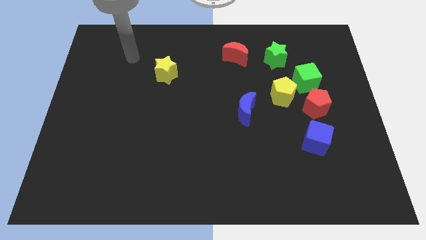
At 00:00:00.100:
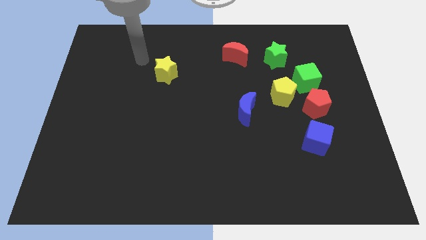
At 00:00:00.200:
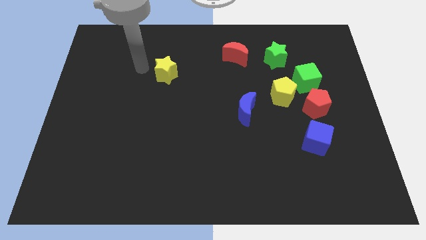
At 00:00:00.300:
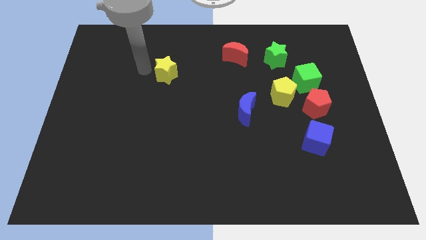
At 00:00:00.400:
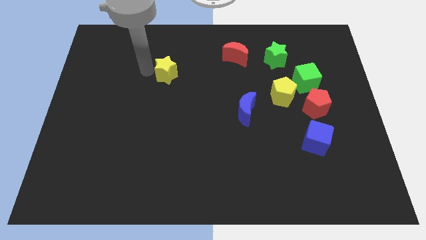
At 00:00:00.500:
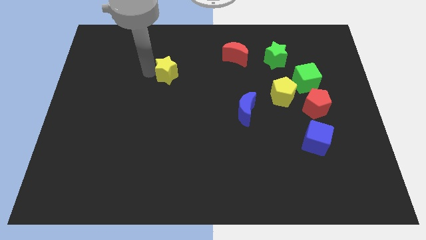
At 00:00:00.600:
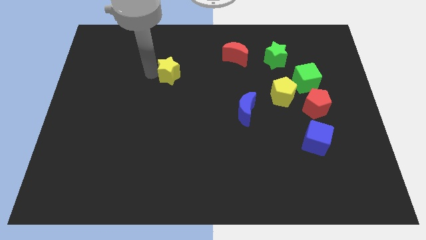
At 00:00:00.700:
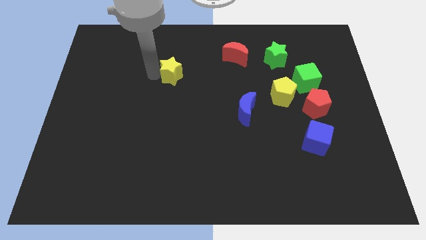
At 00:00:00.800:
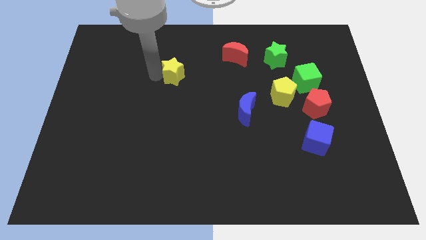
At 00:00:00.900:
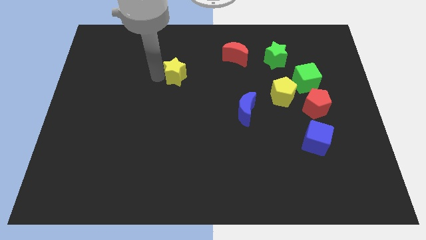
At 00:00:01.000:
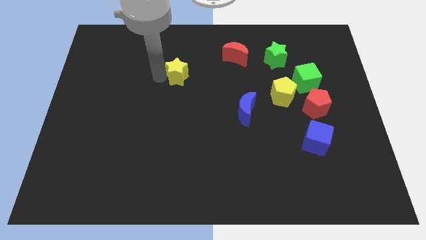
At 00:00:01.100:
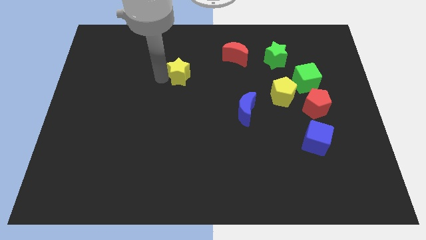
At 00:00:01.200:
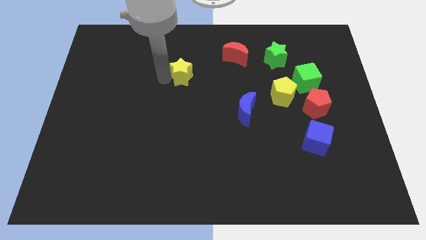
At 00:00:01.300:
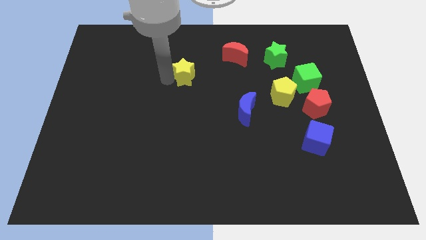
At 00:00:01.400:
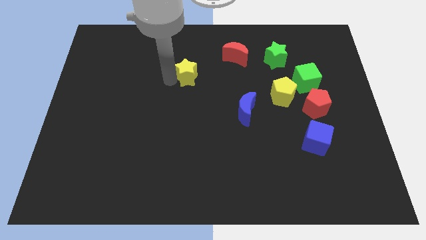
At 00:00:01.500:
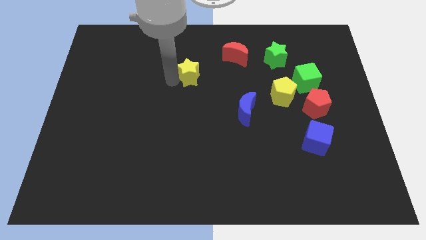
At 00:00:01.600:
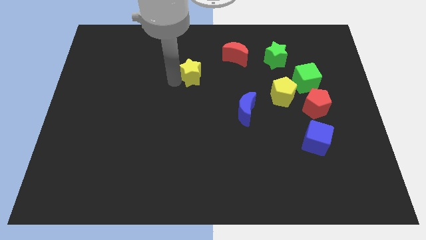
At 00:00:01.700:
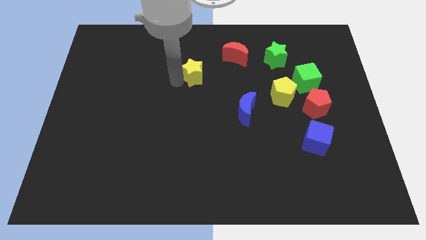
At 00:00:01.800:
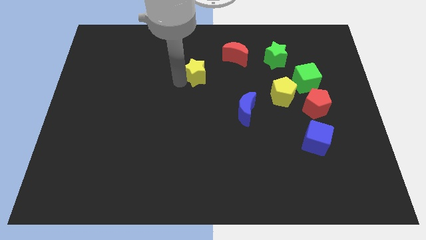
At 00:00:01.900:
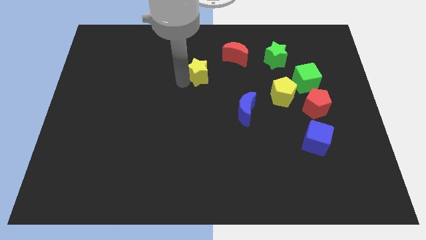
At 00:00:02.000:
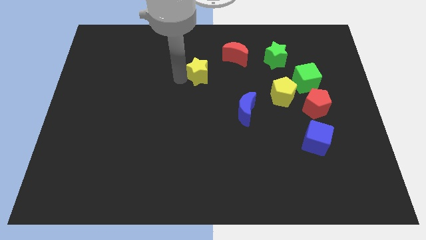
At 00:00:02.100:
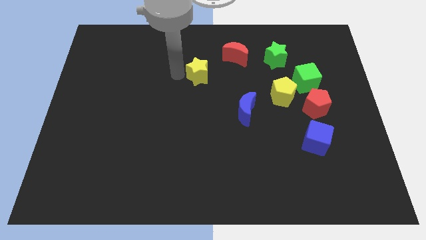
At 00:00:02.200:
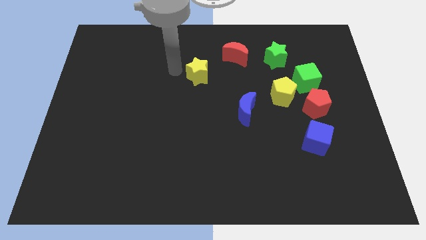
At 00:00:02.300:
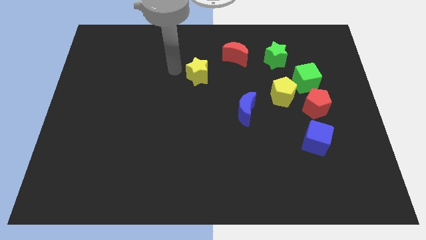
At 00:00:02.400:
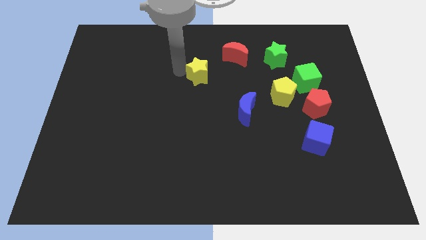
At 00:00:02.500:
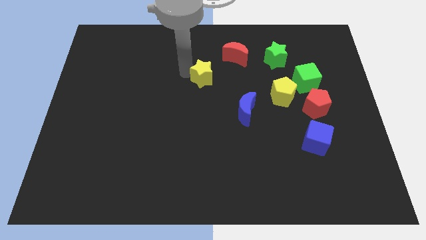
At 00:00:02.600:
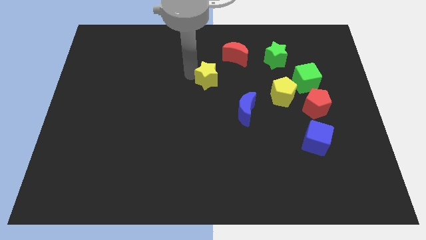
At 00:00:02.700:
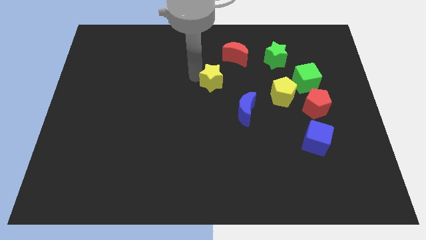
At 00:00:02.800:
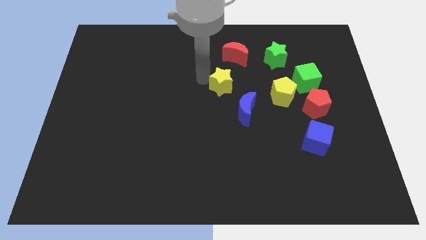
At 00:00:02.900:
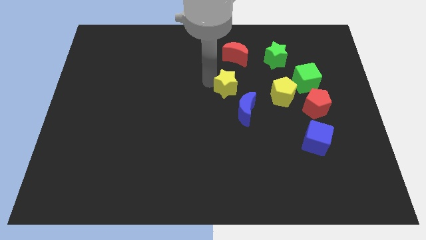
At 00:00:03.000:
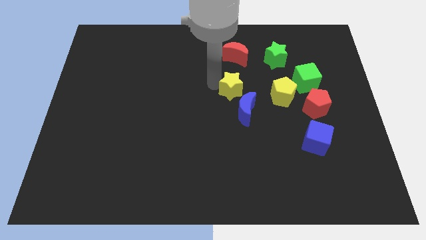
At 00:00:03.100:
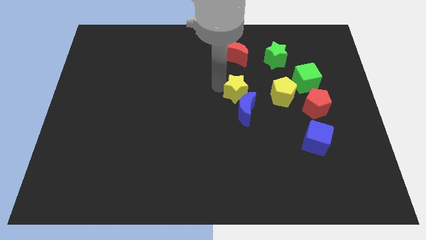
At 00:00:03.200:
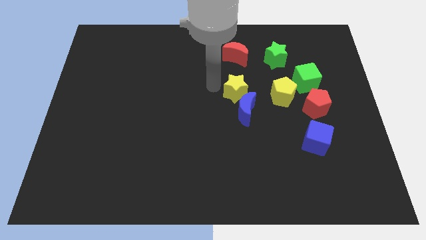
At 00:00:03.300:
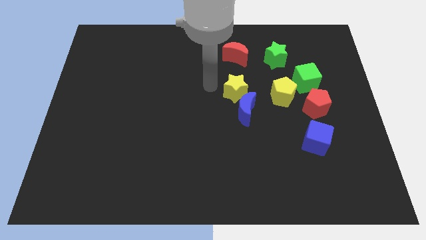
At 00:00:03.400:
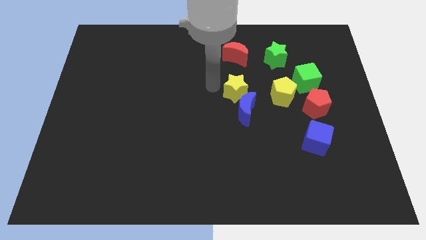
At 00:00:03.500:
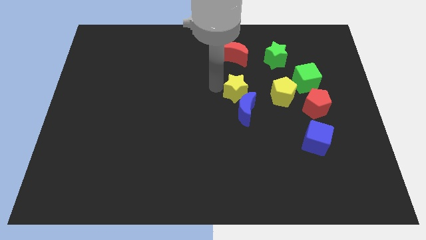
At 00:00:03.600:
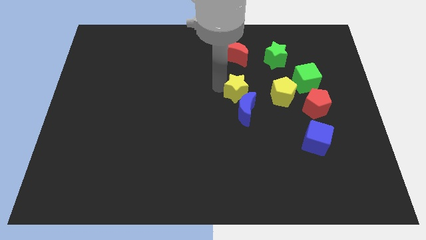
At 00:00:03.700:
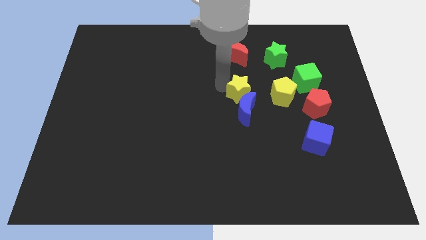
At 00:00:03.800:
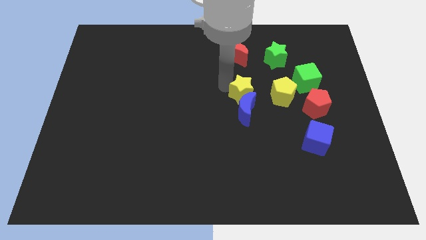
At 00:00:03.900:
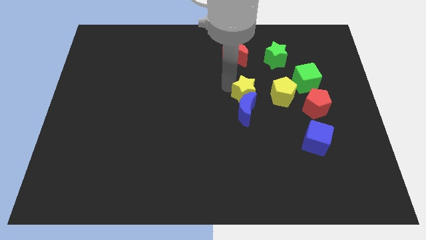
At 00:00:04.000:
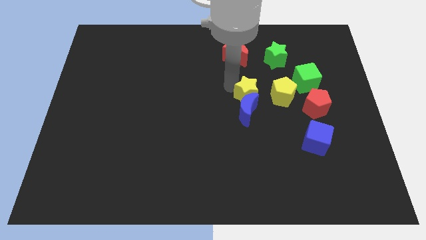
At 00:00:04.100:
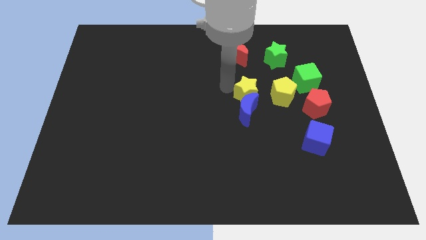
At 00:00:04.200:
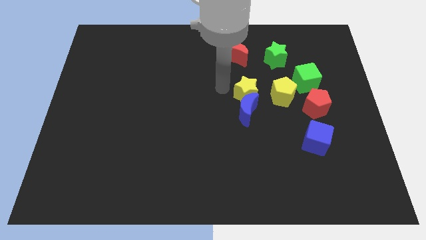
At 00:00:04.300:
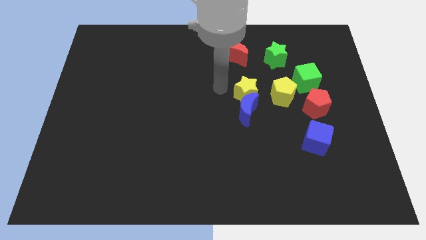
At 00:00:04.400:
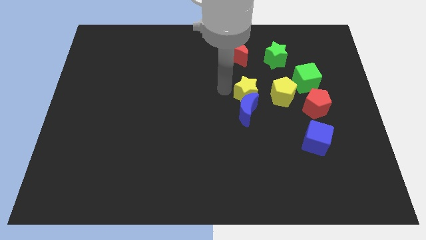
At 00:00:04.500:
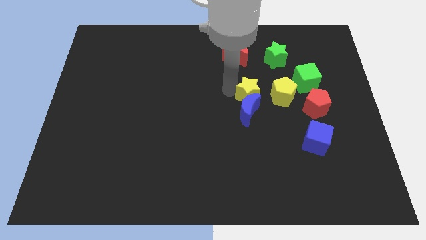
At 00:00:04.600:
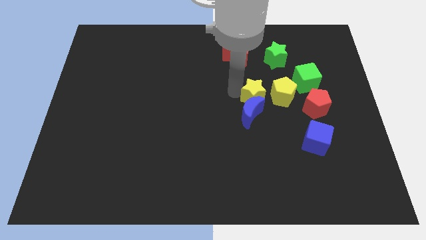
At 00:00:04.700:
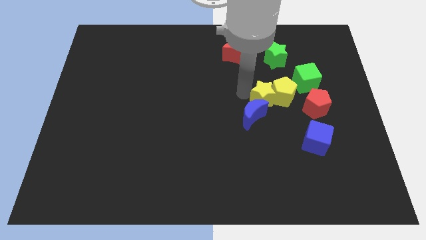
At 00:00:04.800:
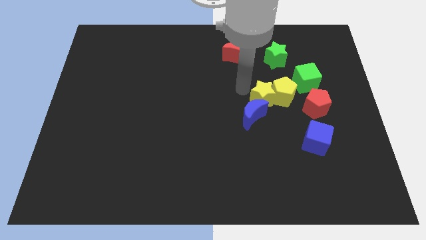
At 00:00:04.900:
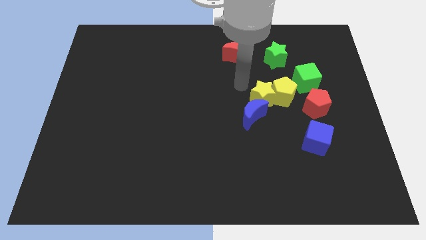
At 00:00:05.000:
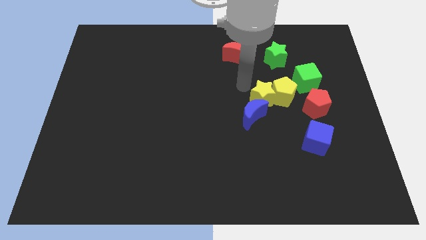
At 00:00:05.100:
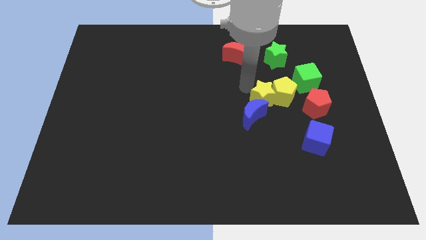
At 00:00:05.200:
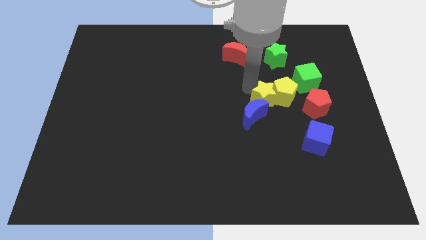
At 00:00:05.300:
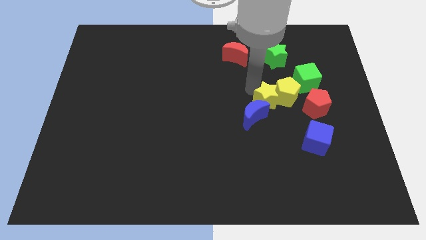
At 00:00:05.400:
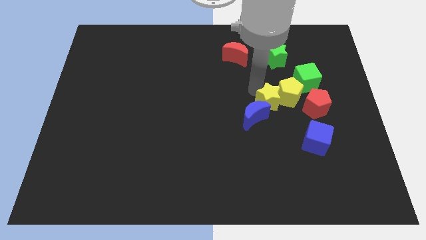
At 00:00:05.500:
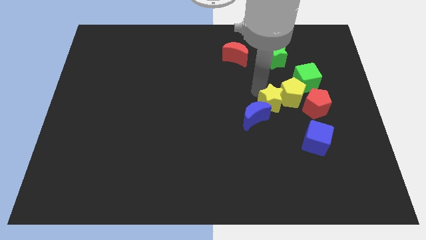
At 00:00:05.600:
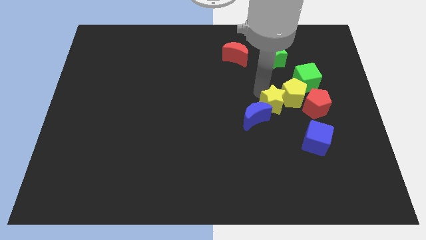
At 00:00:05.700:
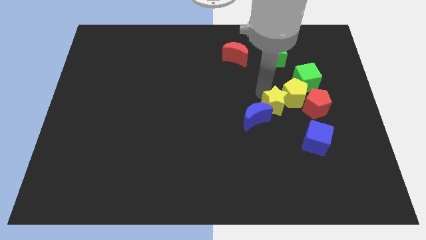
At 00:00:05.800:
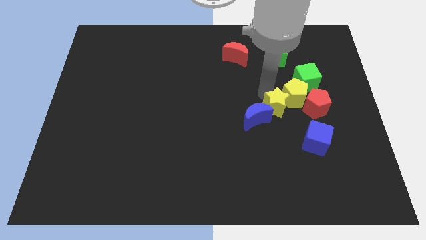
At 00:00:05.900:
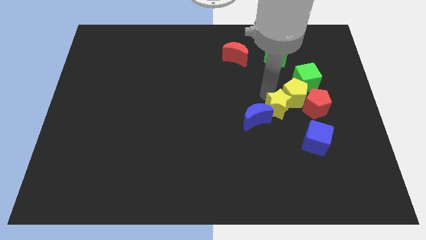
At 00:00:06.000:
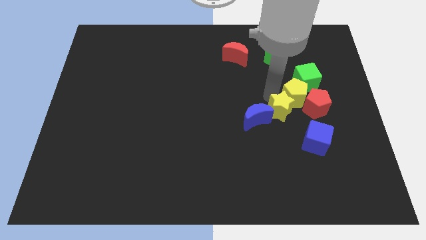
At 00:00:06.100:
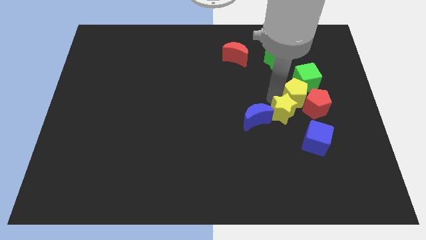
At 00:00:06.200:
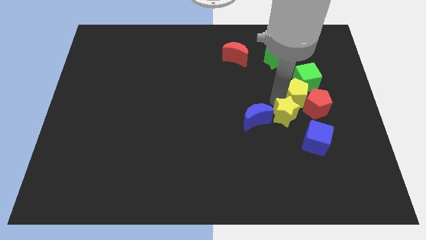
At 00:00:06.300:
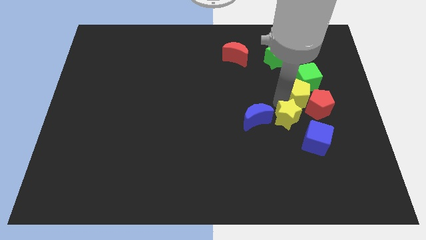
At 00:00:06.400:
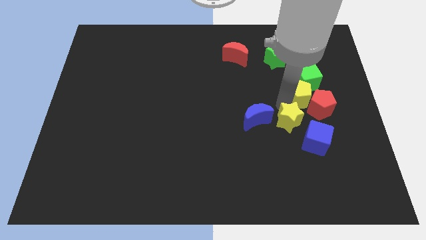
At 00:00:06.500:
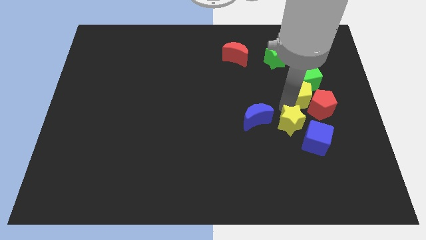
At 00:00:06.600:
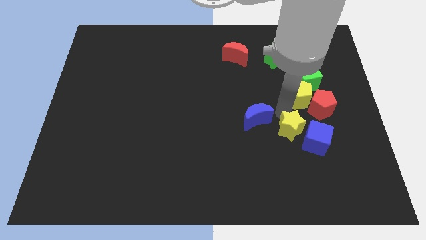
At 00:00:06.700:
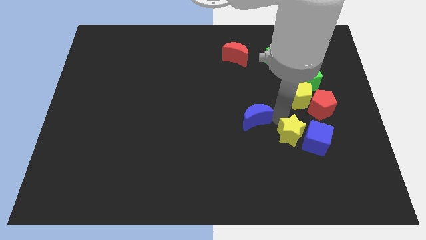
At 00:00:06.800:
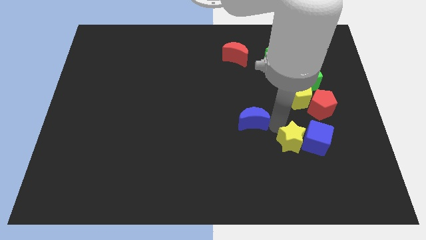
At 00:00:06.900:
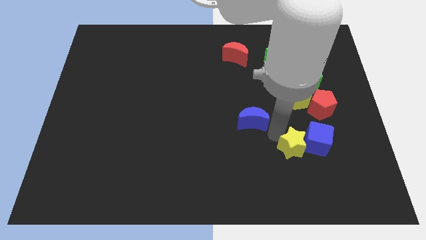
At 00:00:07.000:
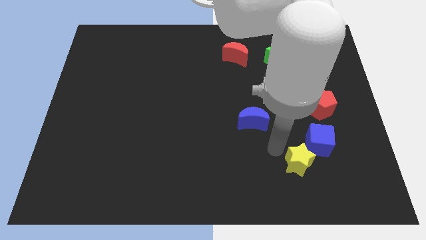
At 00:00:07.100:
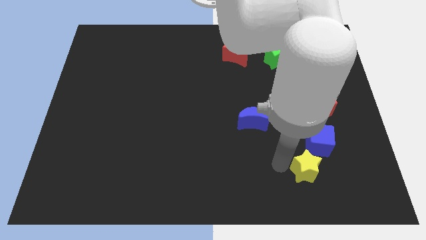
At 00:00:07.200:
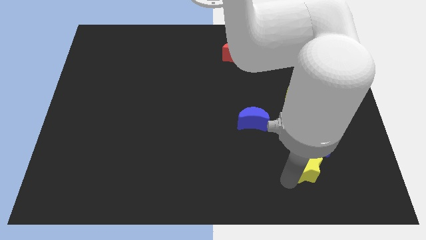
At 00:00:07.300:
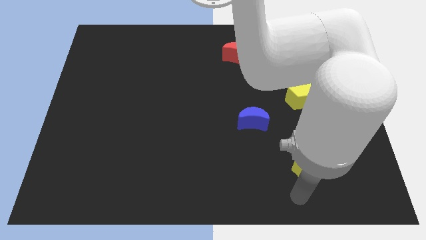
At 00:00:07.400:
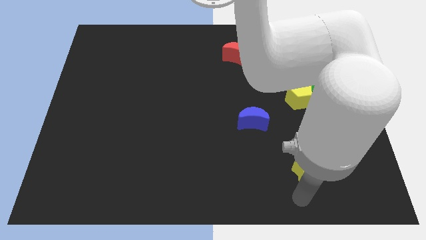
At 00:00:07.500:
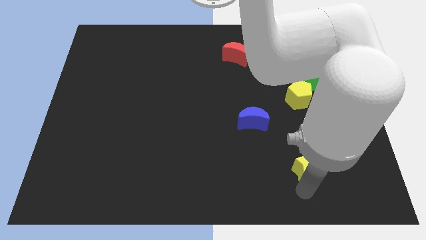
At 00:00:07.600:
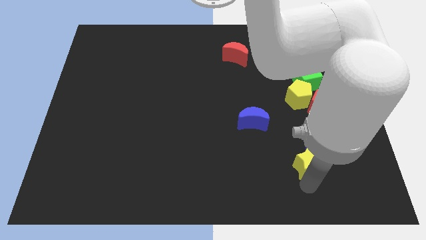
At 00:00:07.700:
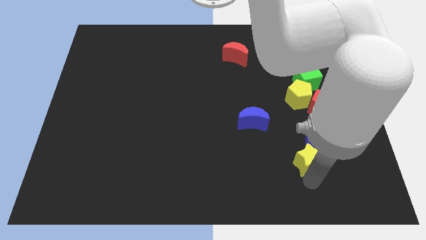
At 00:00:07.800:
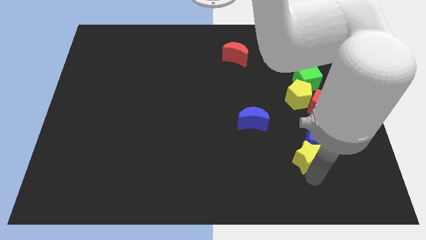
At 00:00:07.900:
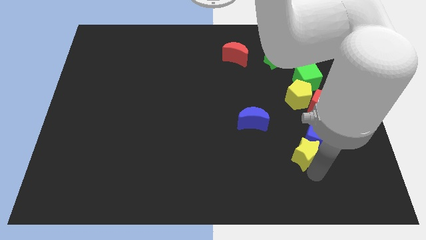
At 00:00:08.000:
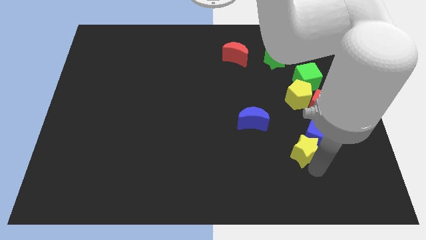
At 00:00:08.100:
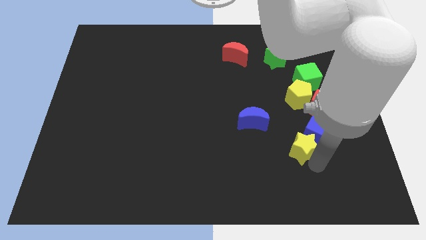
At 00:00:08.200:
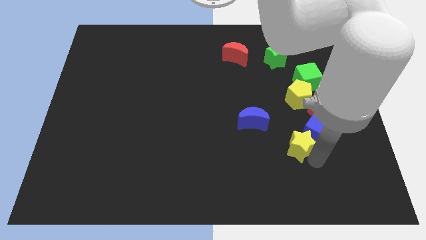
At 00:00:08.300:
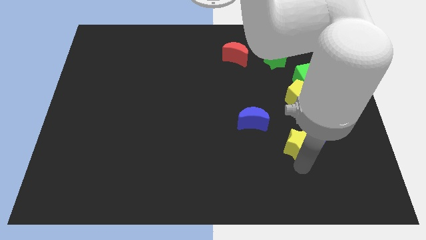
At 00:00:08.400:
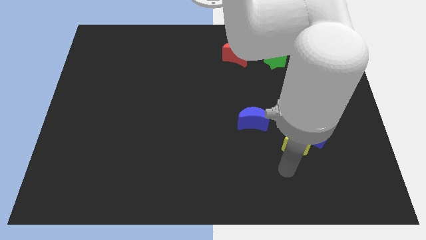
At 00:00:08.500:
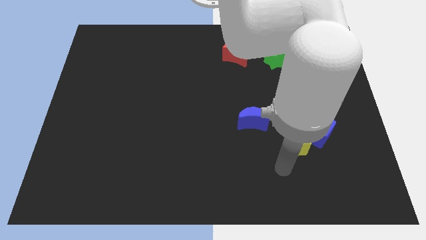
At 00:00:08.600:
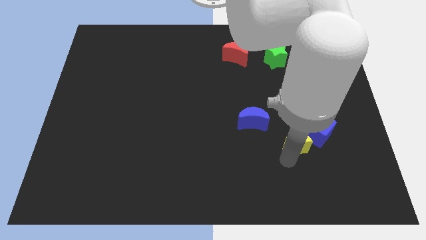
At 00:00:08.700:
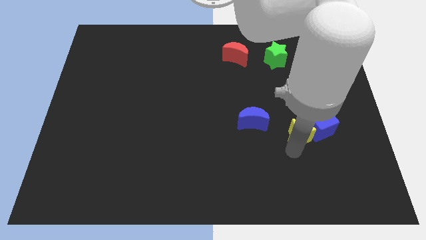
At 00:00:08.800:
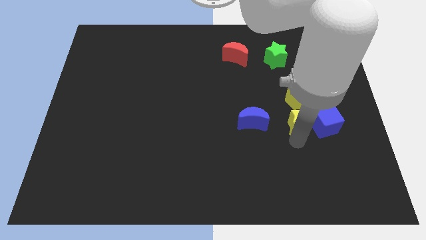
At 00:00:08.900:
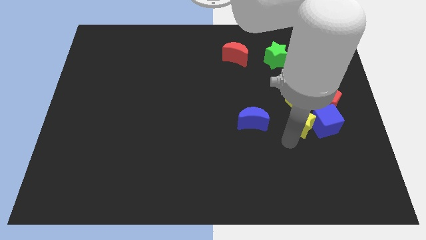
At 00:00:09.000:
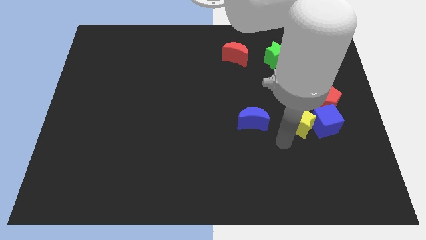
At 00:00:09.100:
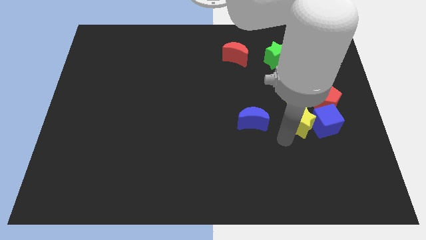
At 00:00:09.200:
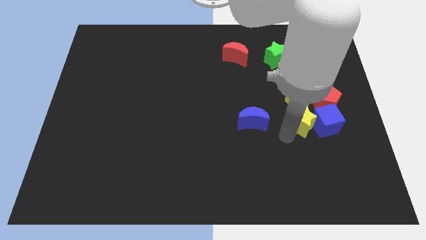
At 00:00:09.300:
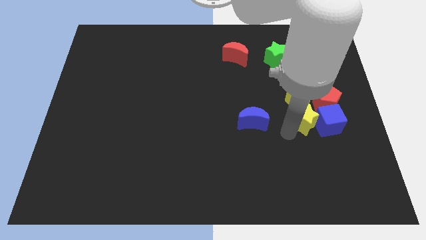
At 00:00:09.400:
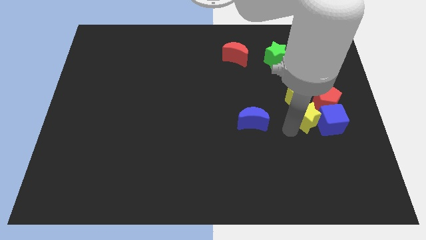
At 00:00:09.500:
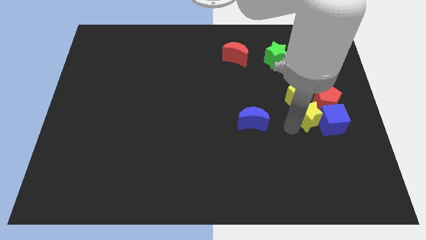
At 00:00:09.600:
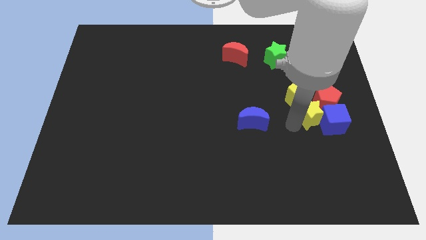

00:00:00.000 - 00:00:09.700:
push the yellow star to the red pentagon
